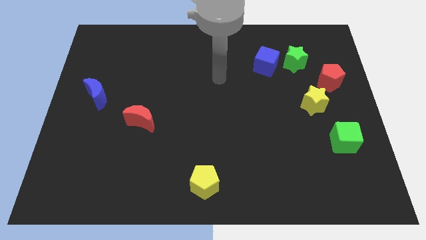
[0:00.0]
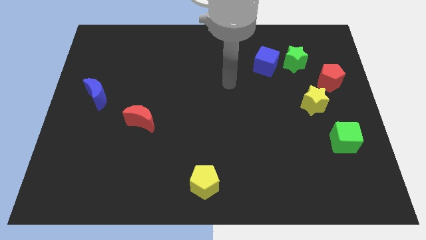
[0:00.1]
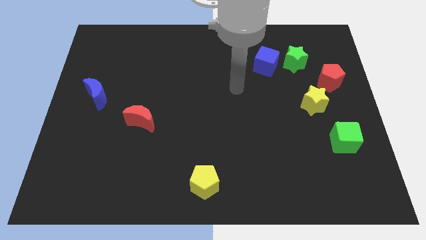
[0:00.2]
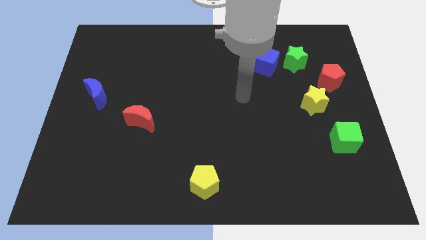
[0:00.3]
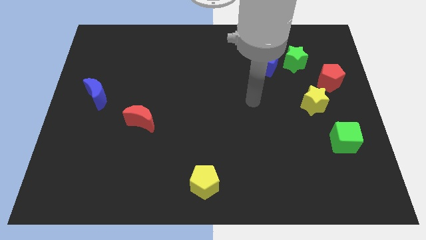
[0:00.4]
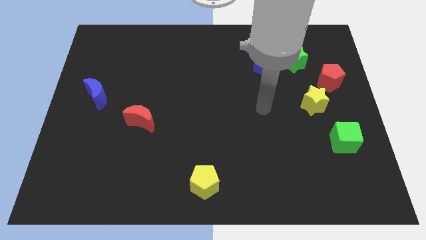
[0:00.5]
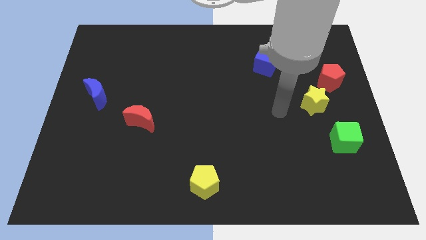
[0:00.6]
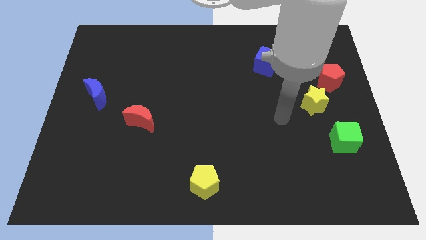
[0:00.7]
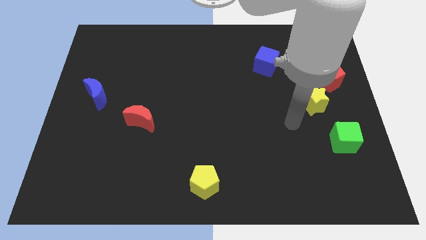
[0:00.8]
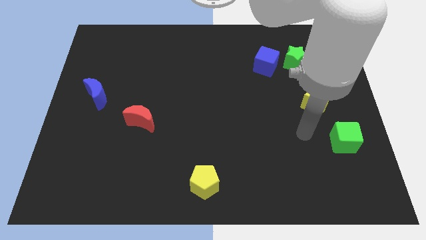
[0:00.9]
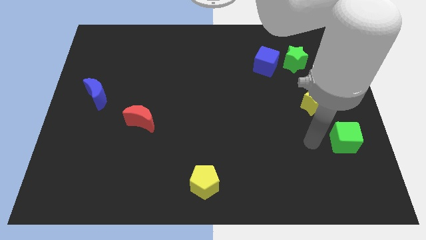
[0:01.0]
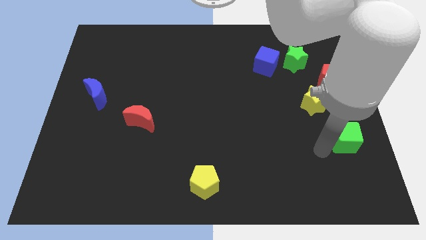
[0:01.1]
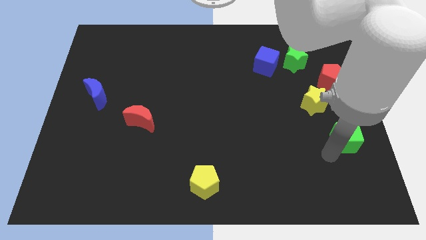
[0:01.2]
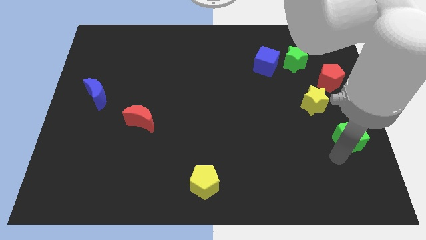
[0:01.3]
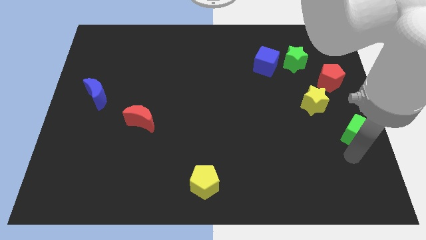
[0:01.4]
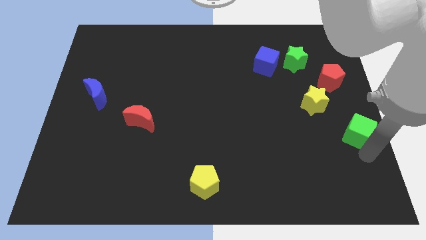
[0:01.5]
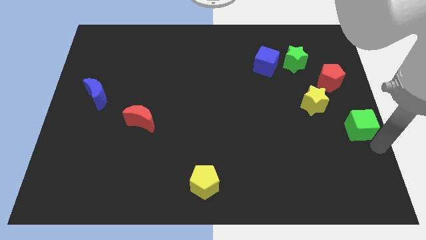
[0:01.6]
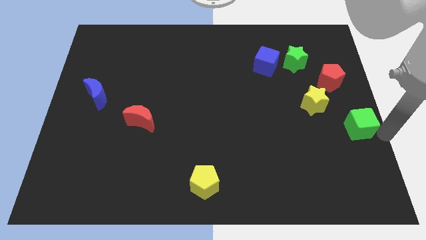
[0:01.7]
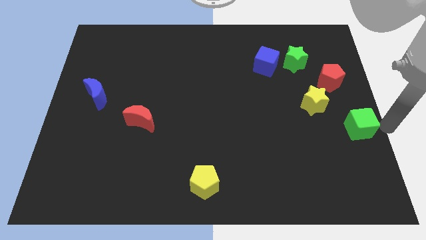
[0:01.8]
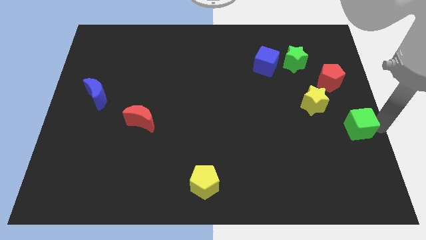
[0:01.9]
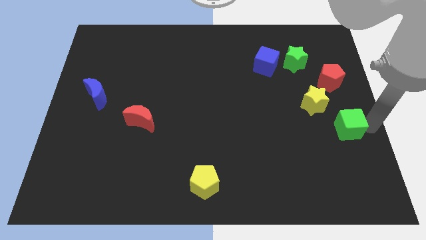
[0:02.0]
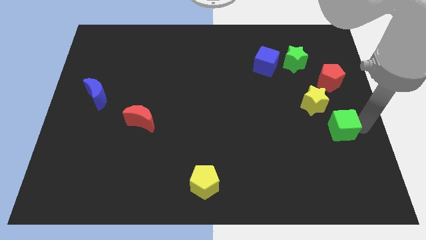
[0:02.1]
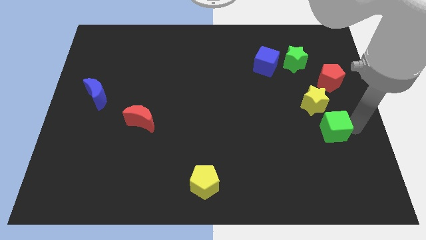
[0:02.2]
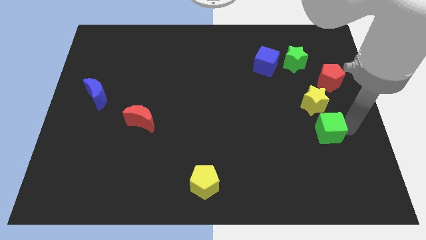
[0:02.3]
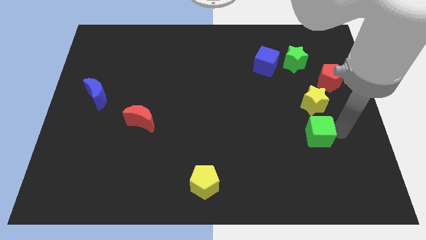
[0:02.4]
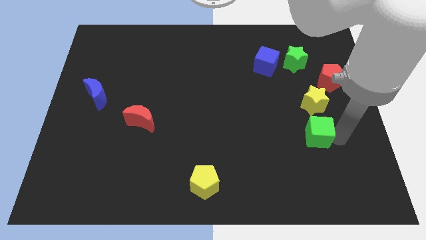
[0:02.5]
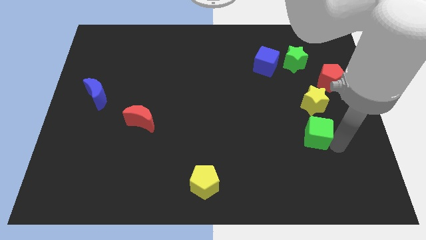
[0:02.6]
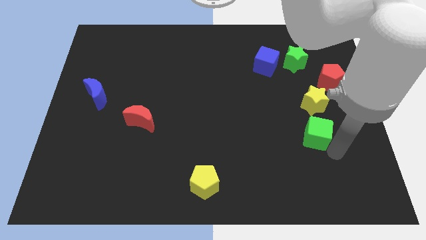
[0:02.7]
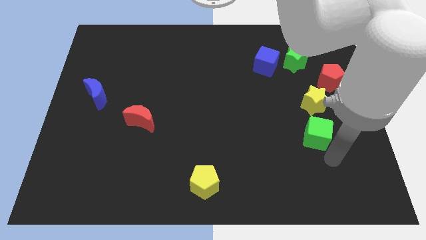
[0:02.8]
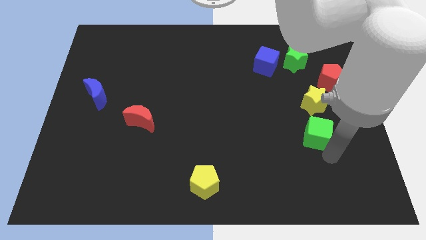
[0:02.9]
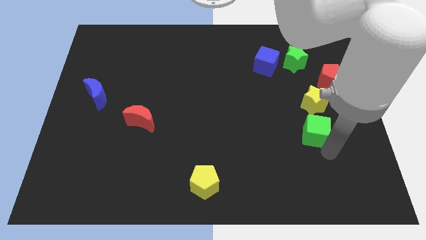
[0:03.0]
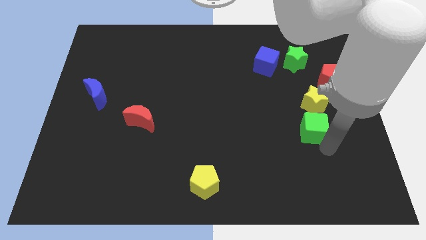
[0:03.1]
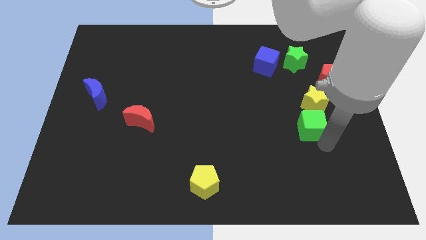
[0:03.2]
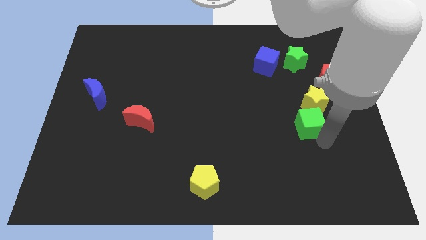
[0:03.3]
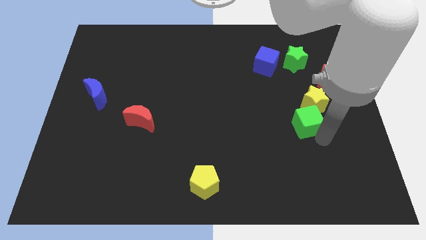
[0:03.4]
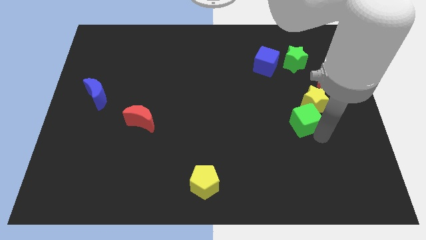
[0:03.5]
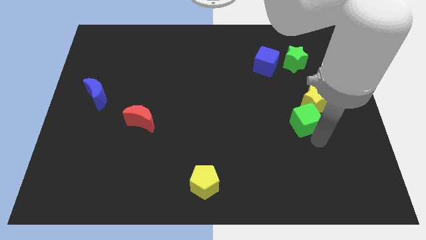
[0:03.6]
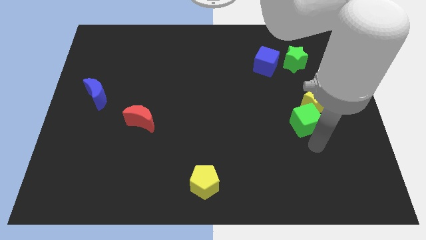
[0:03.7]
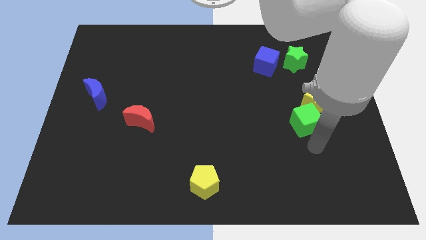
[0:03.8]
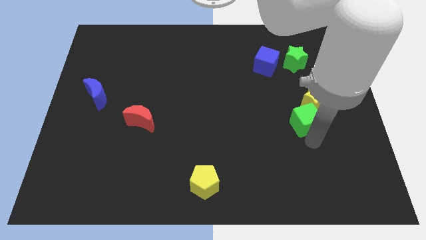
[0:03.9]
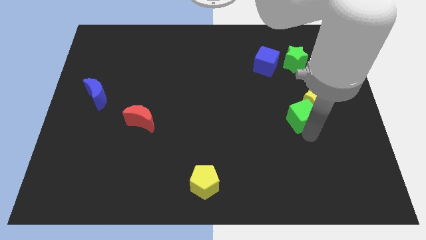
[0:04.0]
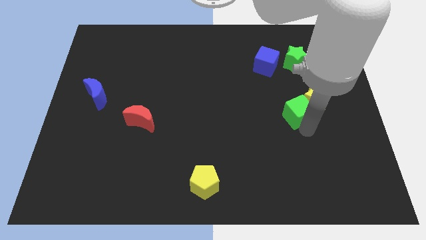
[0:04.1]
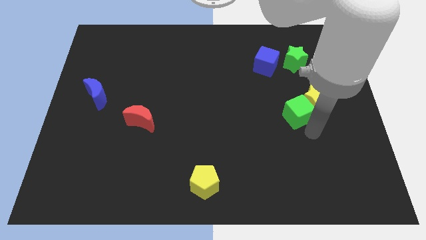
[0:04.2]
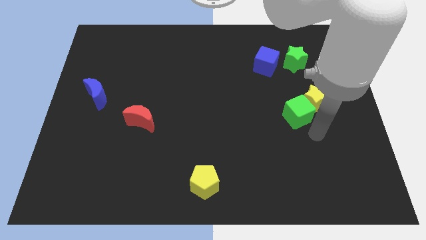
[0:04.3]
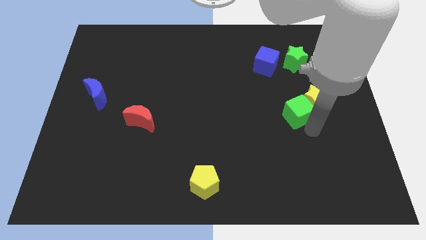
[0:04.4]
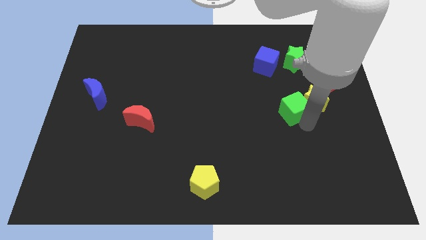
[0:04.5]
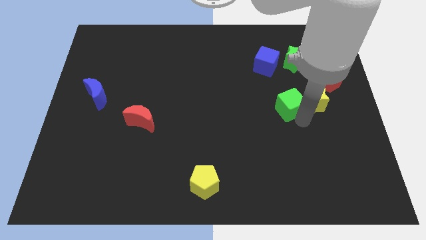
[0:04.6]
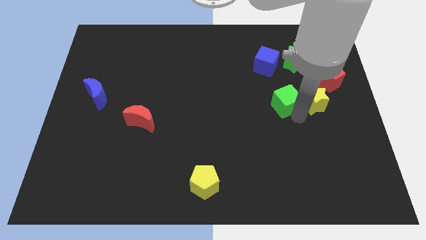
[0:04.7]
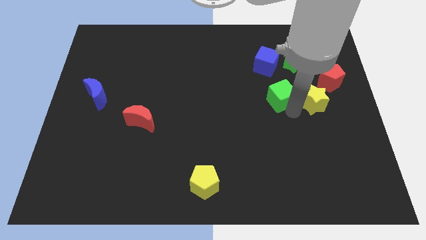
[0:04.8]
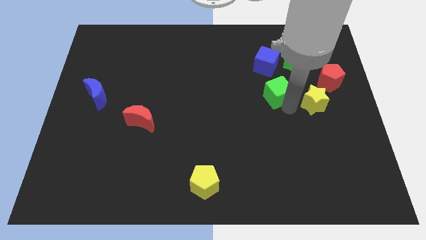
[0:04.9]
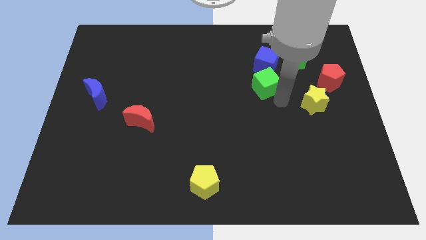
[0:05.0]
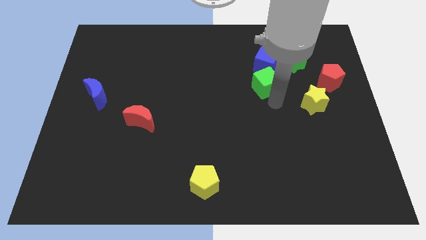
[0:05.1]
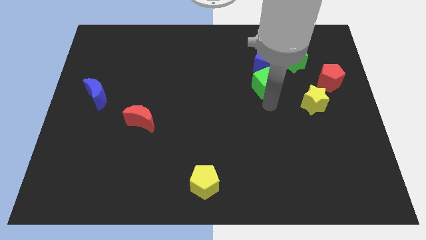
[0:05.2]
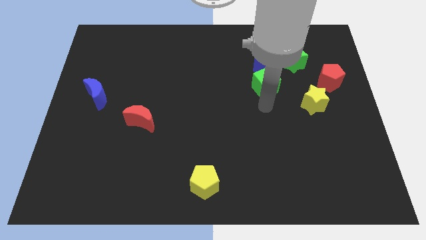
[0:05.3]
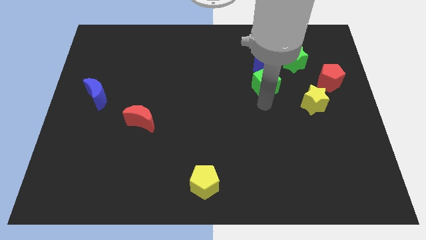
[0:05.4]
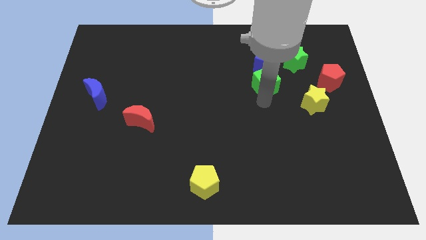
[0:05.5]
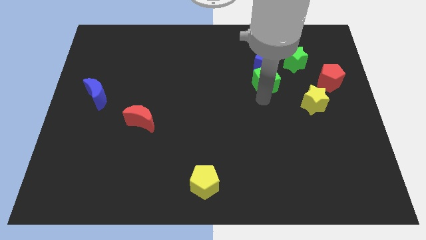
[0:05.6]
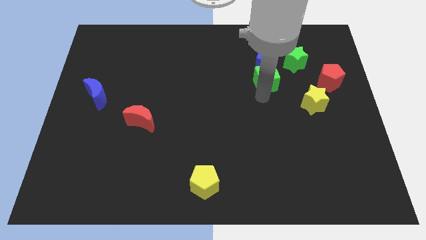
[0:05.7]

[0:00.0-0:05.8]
push the green cube close to the blue cube

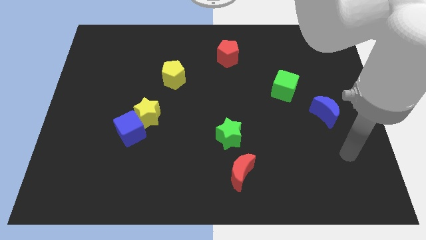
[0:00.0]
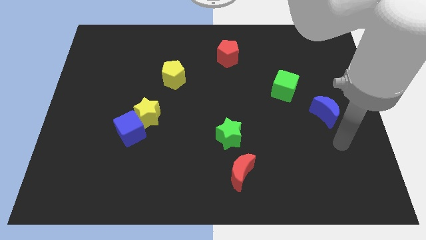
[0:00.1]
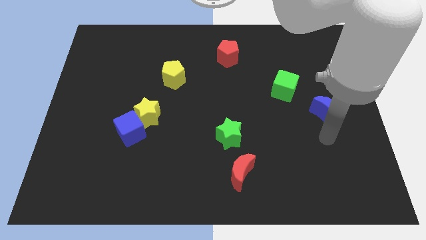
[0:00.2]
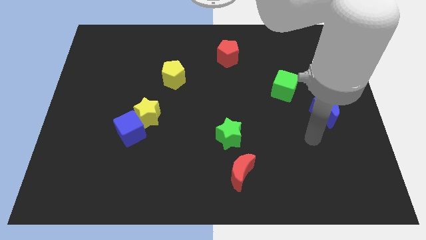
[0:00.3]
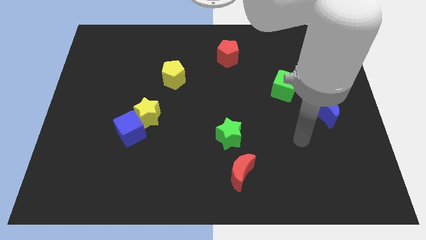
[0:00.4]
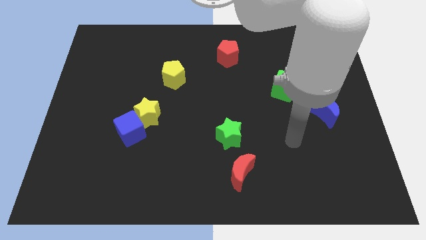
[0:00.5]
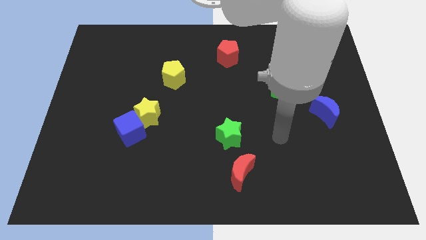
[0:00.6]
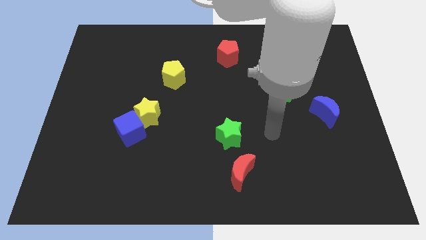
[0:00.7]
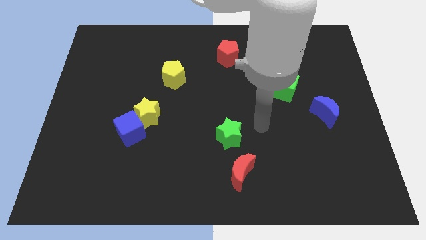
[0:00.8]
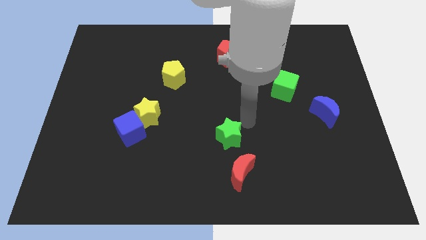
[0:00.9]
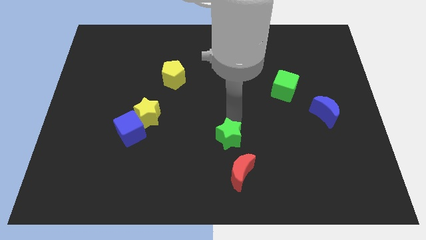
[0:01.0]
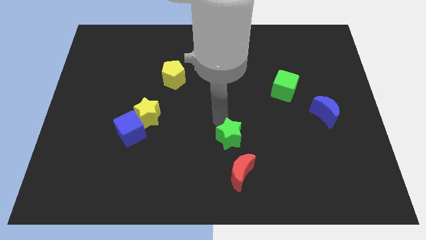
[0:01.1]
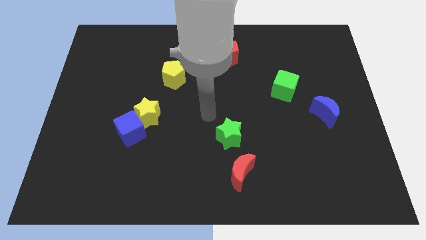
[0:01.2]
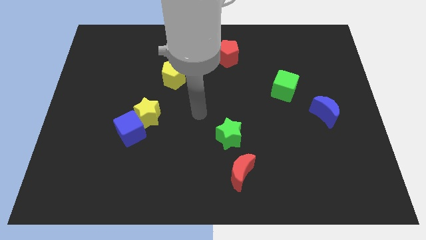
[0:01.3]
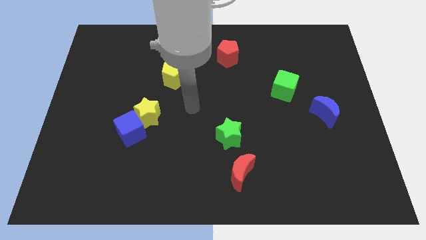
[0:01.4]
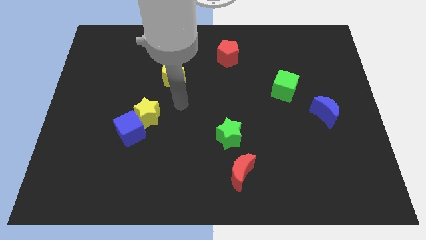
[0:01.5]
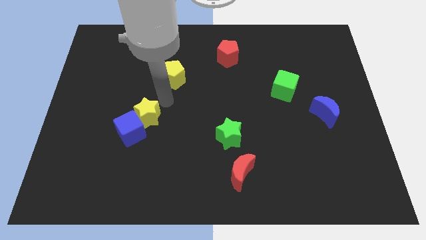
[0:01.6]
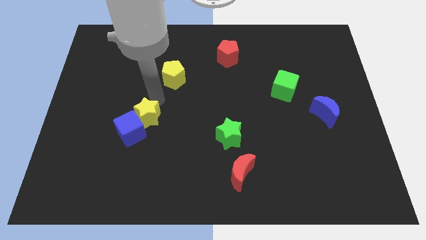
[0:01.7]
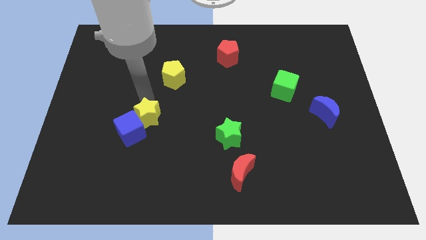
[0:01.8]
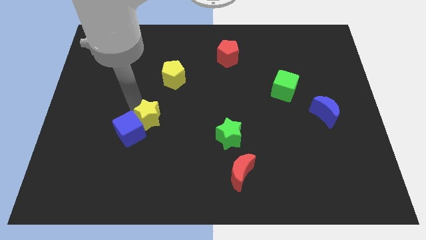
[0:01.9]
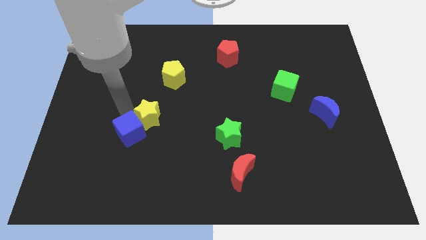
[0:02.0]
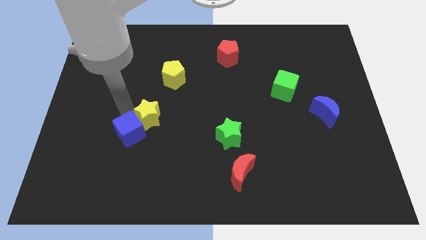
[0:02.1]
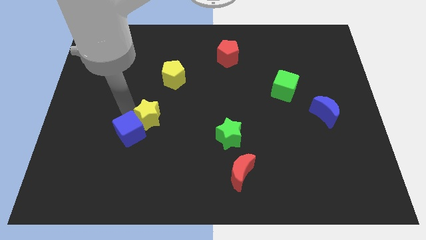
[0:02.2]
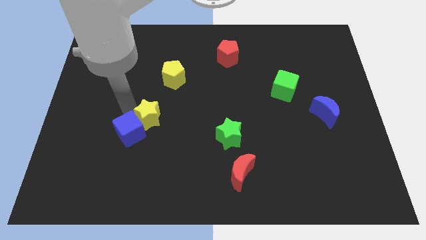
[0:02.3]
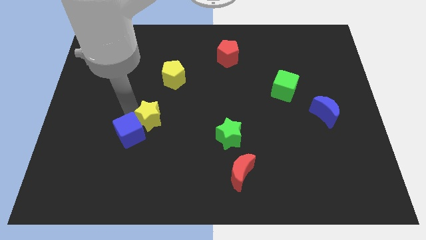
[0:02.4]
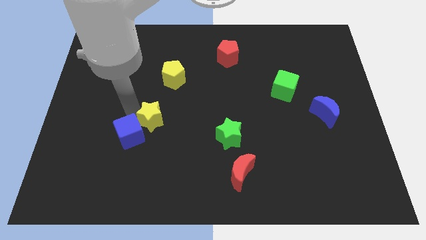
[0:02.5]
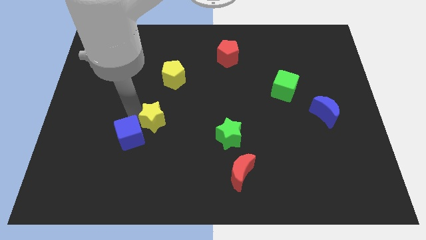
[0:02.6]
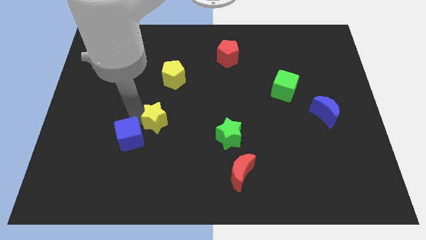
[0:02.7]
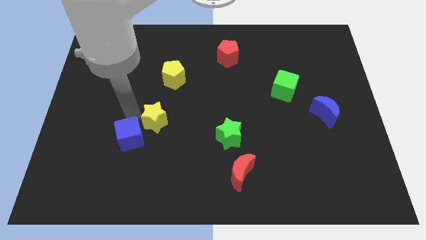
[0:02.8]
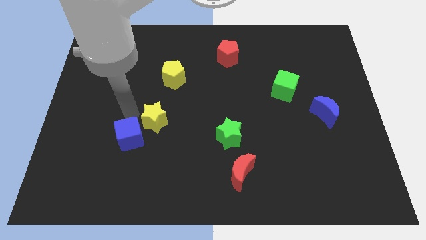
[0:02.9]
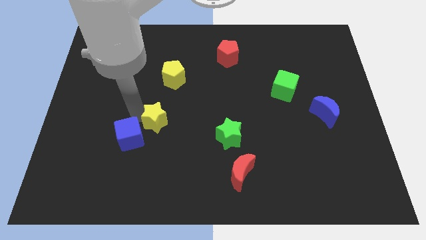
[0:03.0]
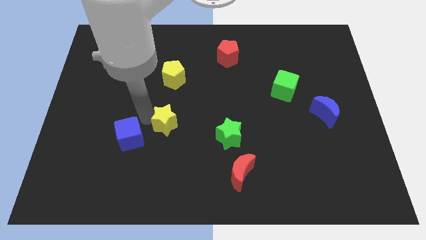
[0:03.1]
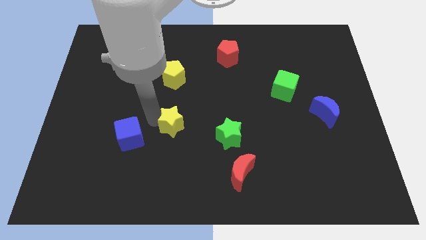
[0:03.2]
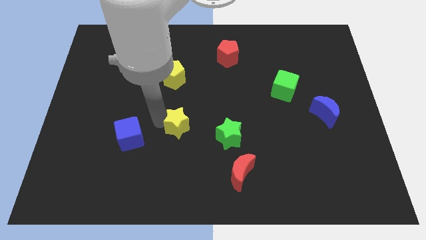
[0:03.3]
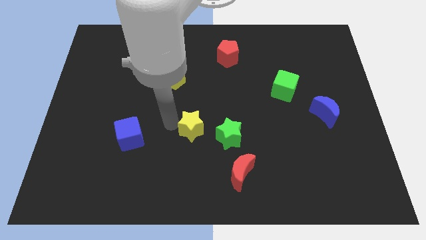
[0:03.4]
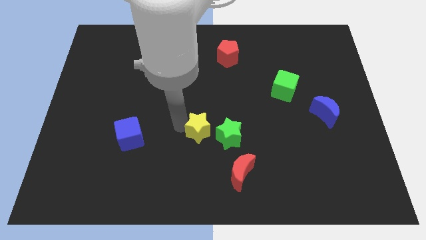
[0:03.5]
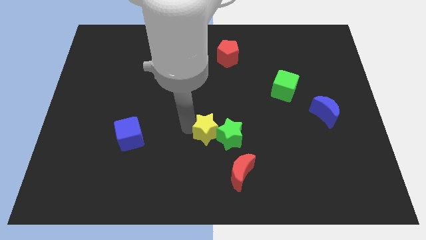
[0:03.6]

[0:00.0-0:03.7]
move the yellow star to the green star
